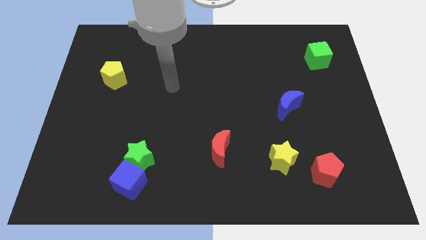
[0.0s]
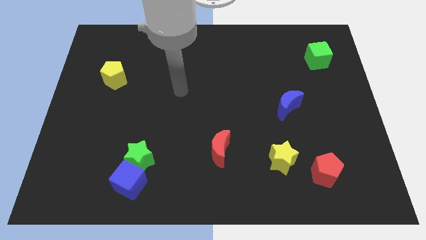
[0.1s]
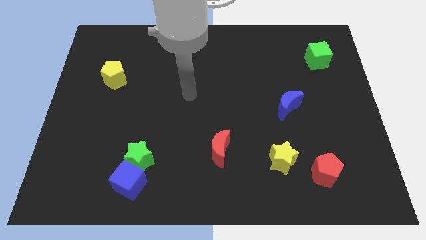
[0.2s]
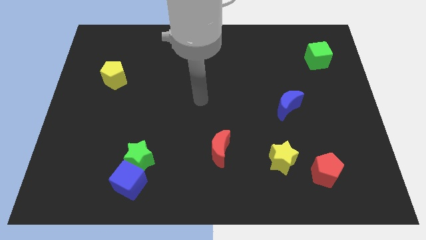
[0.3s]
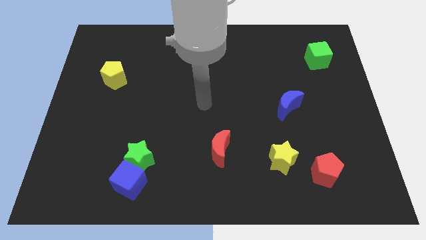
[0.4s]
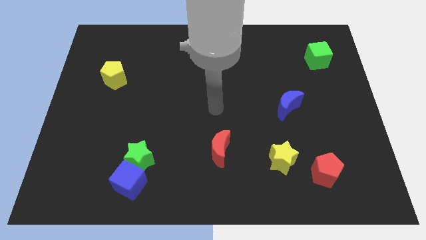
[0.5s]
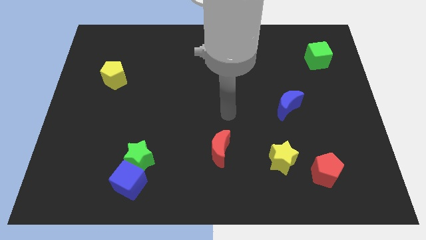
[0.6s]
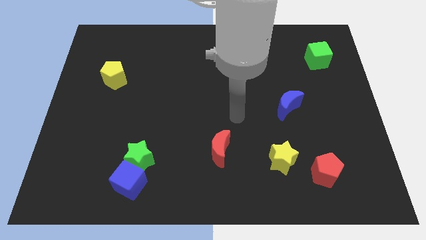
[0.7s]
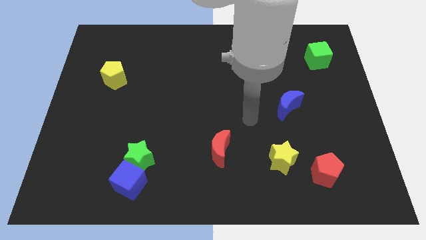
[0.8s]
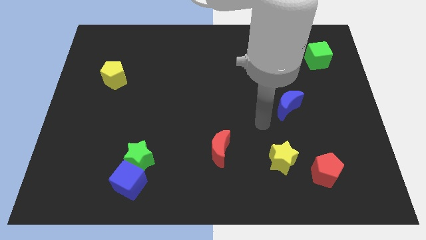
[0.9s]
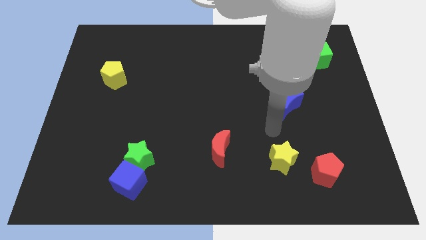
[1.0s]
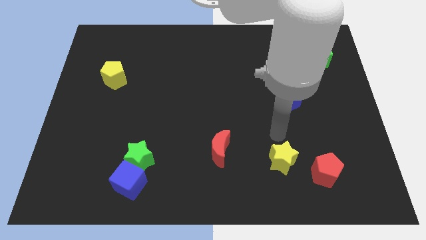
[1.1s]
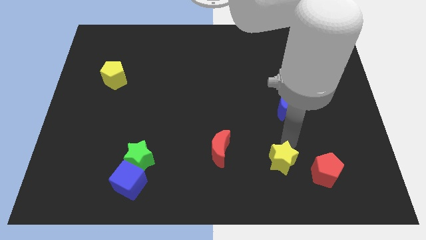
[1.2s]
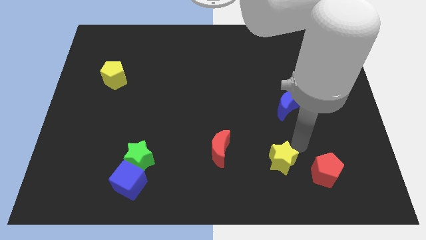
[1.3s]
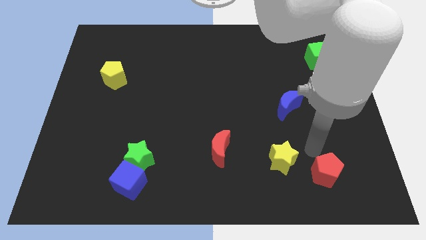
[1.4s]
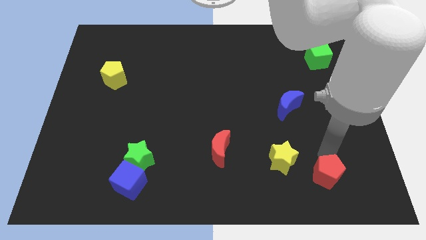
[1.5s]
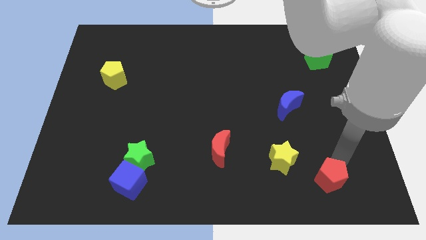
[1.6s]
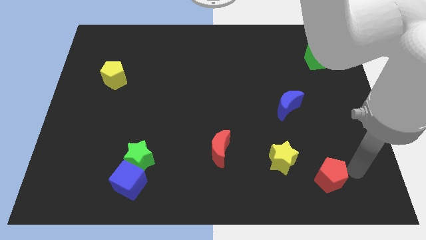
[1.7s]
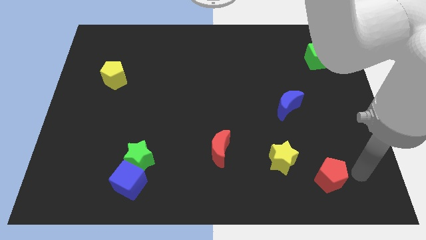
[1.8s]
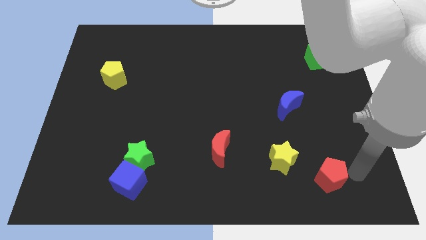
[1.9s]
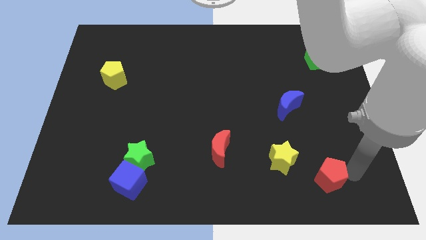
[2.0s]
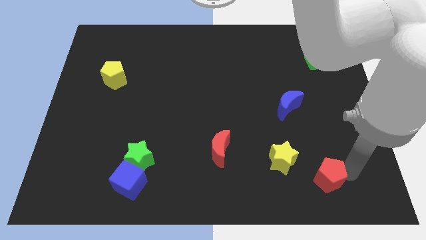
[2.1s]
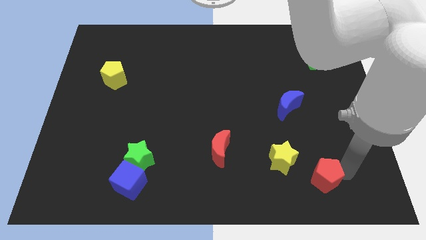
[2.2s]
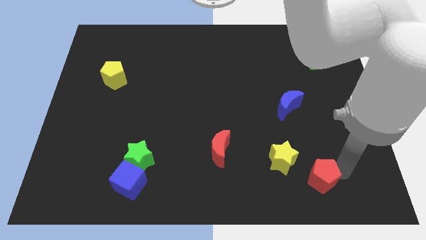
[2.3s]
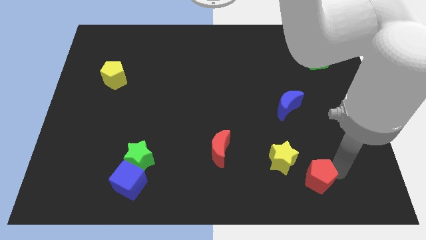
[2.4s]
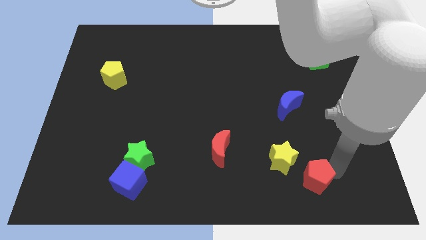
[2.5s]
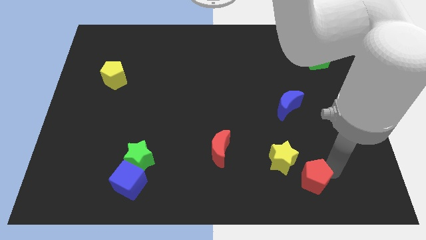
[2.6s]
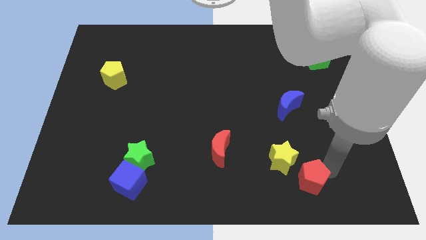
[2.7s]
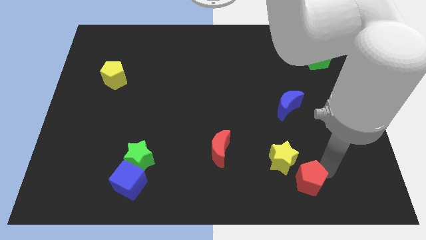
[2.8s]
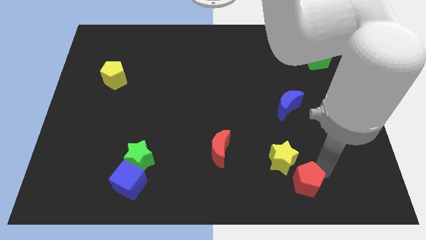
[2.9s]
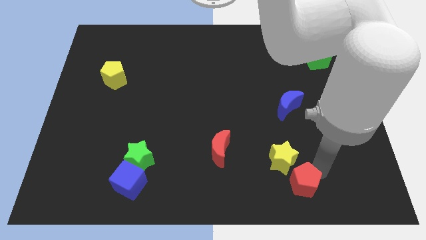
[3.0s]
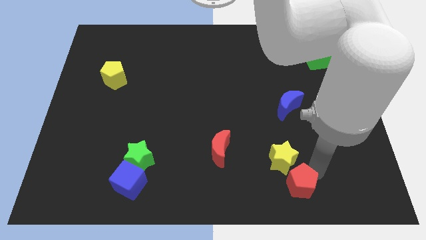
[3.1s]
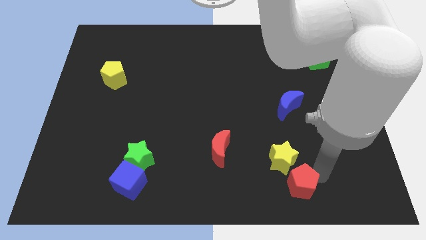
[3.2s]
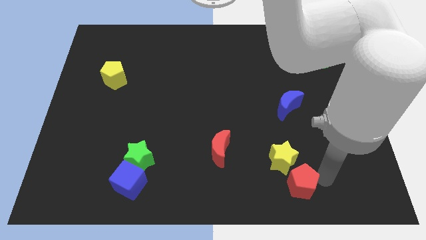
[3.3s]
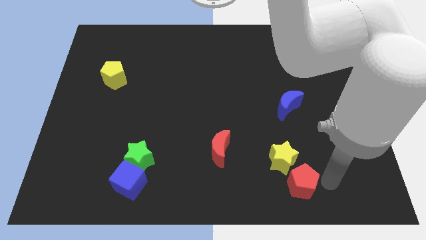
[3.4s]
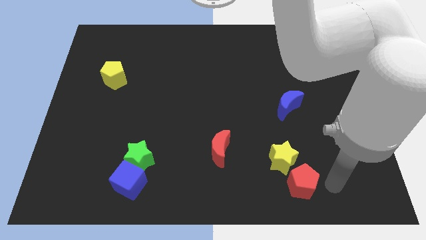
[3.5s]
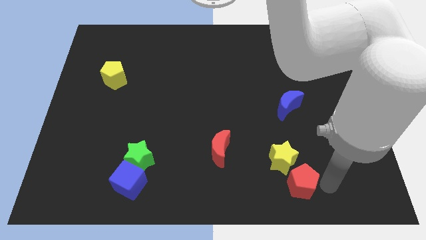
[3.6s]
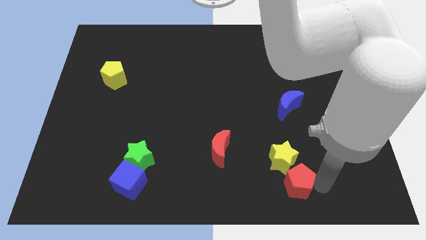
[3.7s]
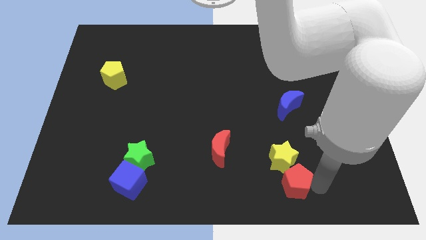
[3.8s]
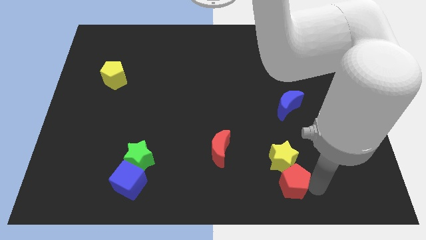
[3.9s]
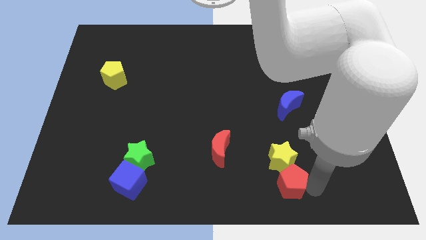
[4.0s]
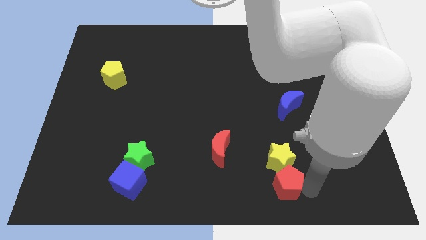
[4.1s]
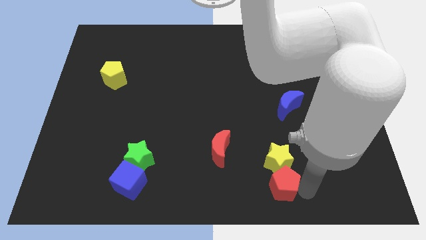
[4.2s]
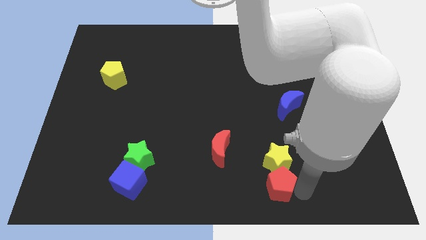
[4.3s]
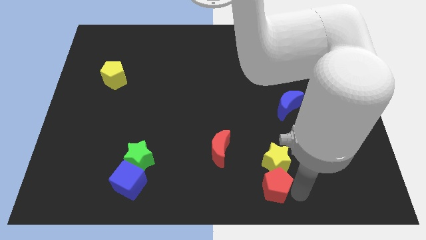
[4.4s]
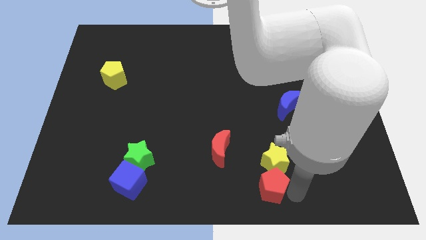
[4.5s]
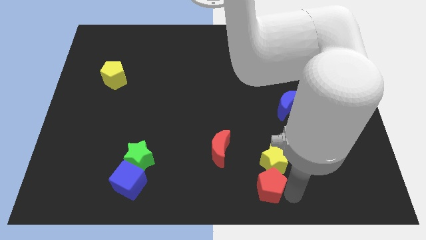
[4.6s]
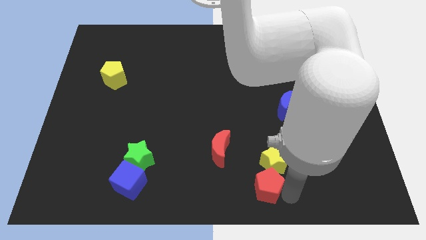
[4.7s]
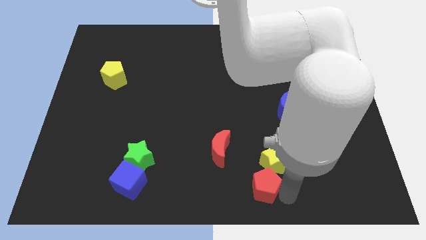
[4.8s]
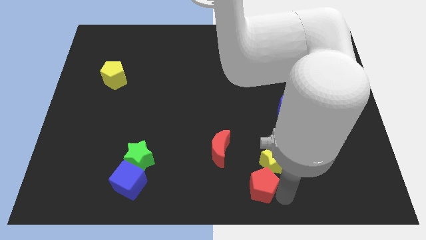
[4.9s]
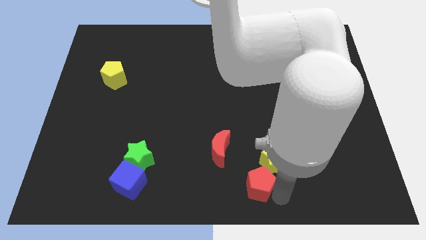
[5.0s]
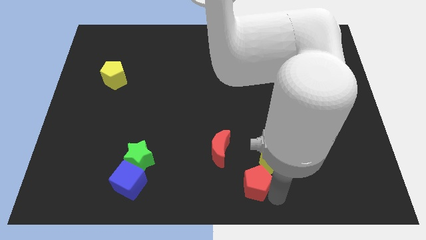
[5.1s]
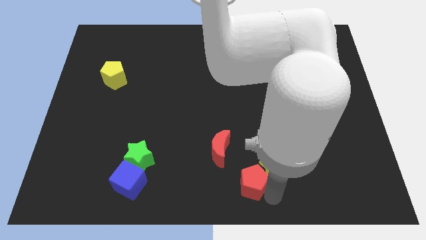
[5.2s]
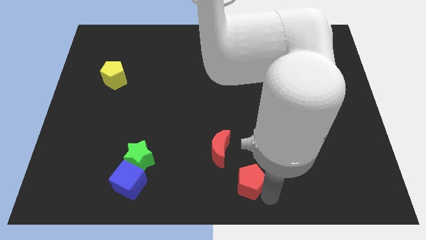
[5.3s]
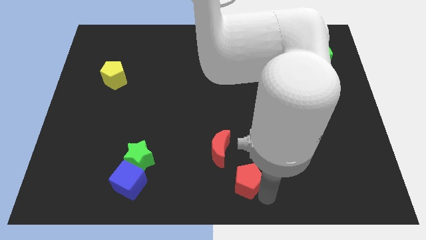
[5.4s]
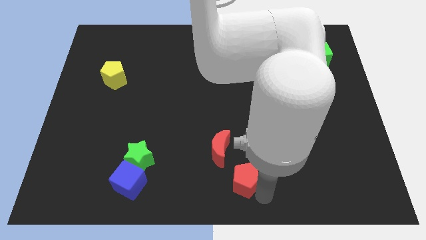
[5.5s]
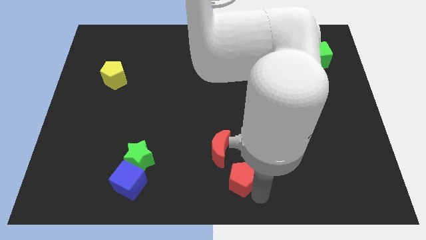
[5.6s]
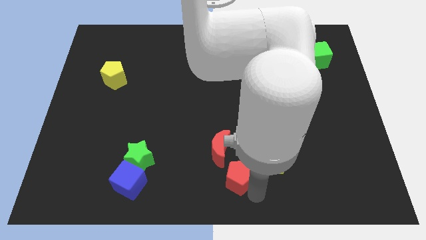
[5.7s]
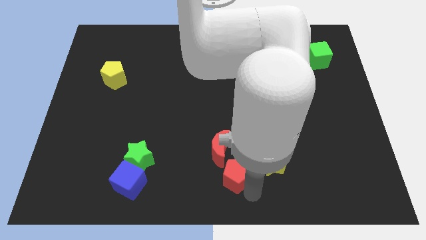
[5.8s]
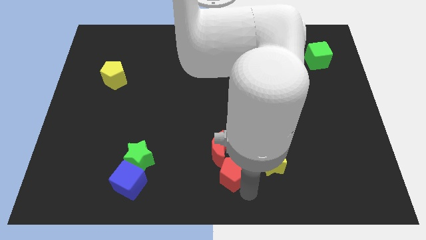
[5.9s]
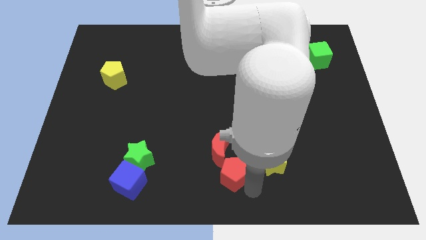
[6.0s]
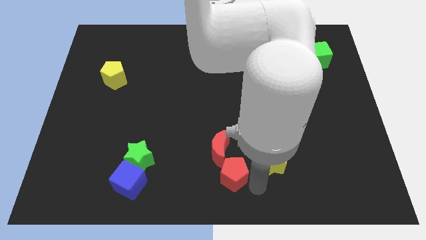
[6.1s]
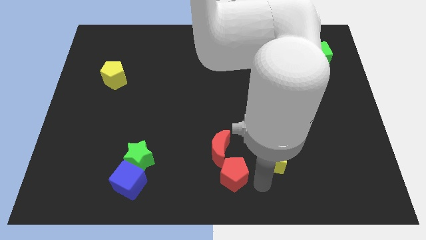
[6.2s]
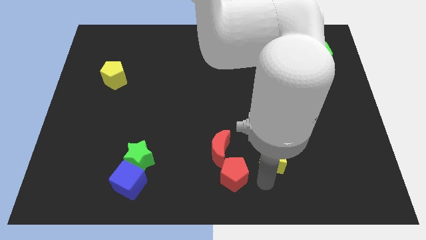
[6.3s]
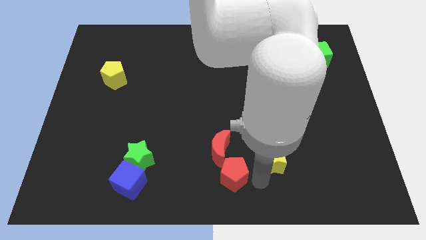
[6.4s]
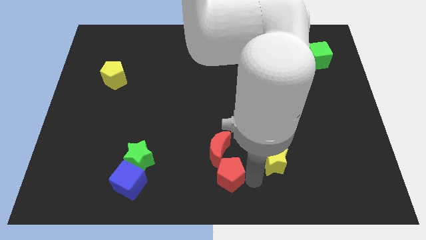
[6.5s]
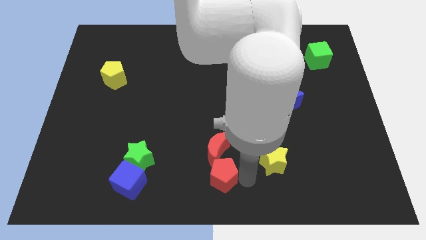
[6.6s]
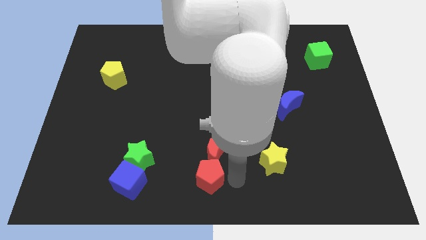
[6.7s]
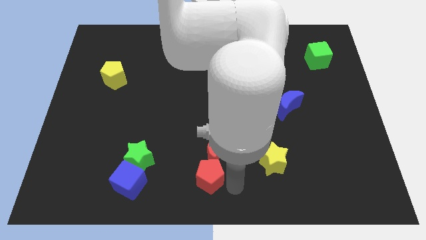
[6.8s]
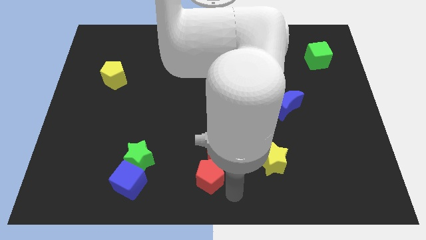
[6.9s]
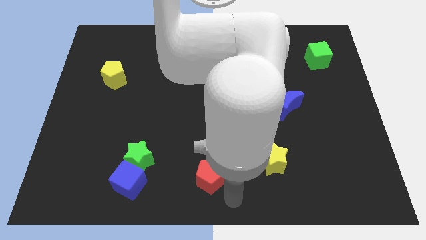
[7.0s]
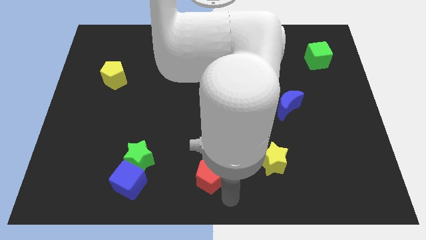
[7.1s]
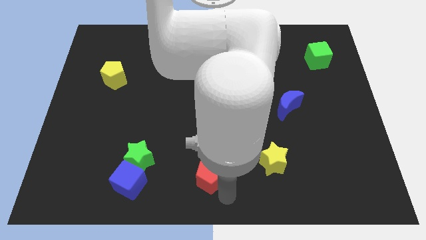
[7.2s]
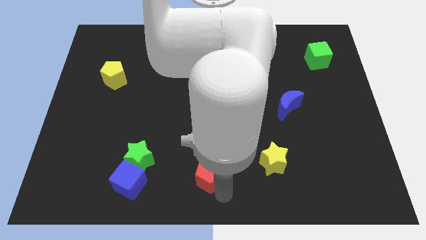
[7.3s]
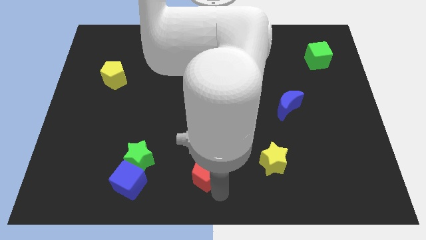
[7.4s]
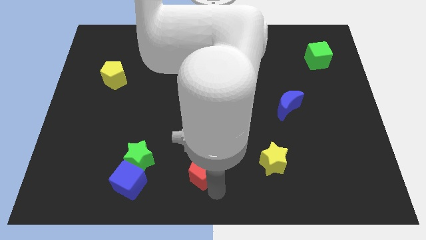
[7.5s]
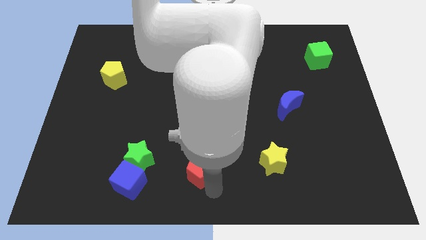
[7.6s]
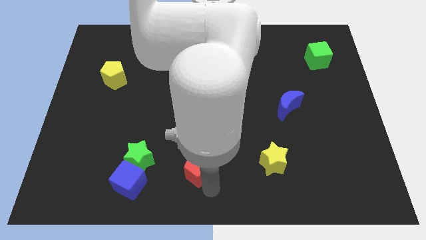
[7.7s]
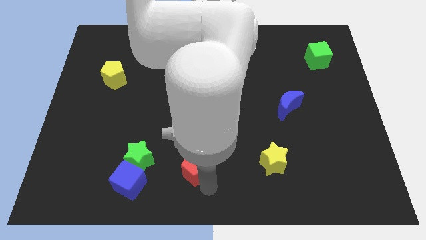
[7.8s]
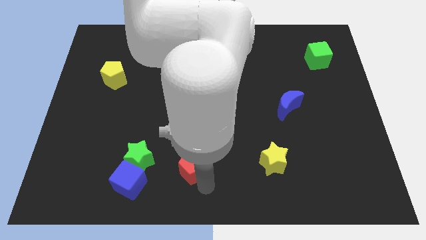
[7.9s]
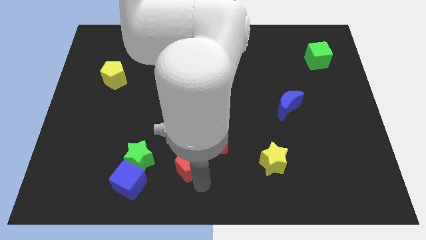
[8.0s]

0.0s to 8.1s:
push the red pentagon to the left side of the red moon
